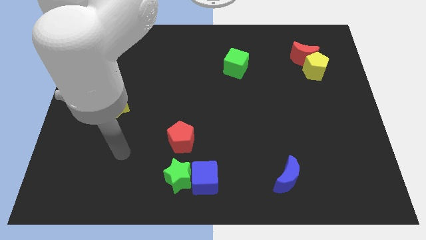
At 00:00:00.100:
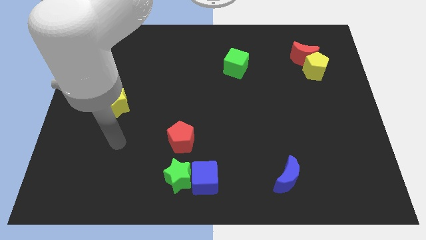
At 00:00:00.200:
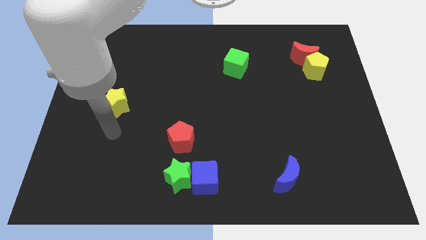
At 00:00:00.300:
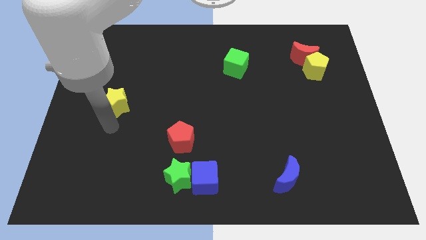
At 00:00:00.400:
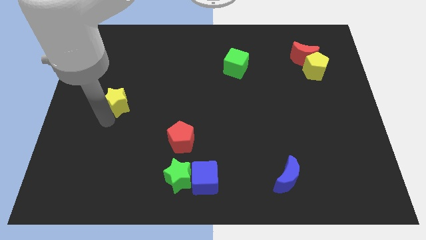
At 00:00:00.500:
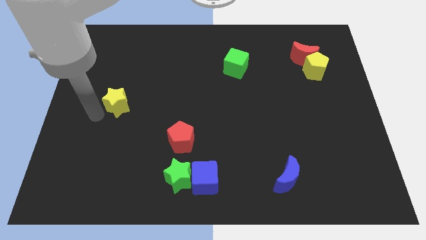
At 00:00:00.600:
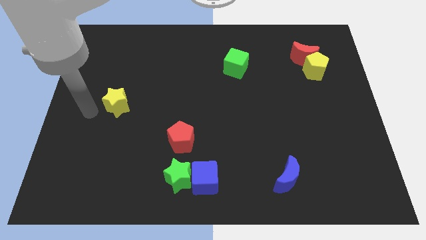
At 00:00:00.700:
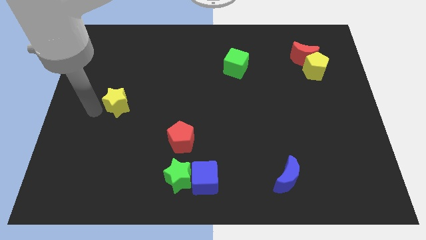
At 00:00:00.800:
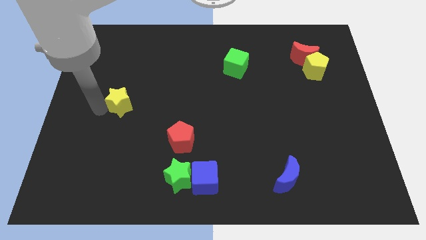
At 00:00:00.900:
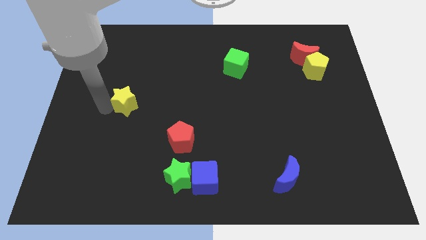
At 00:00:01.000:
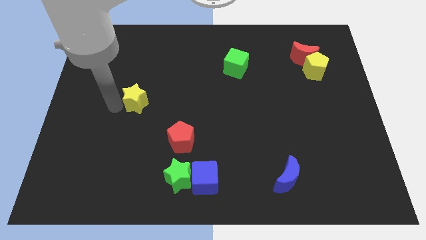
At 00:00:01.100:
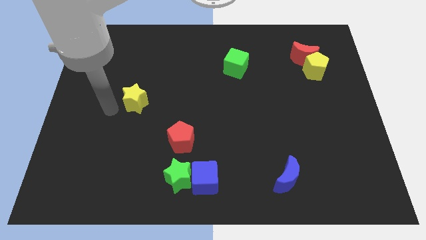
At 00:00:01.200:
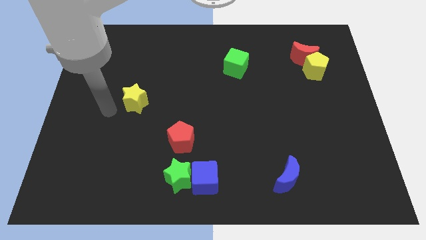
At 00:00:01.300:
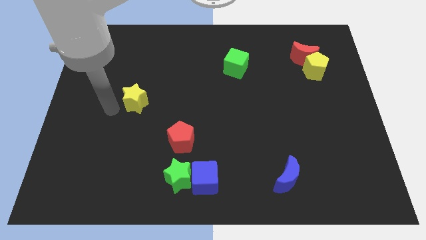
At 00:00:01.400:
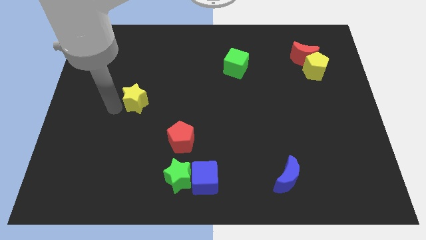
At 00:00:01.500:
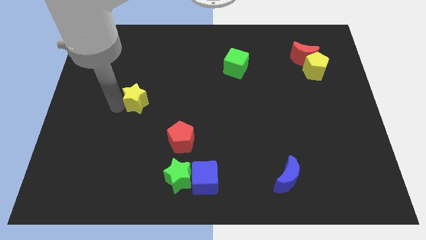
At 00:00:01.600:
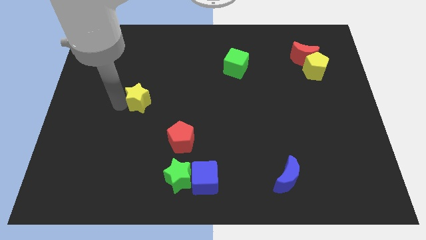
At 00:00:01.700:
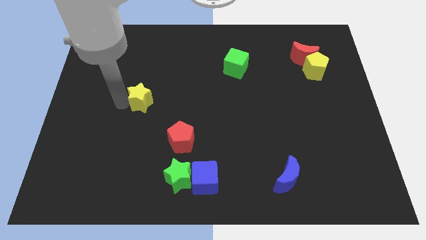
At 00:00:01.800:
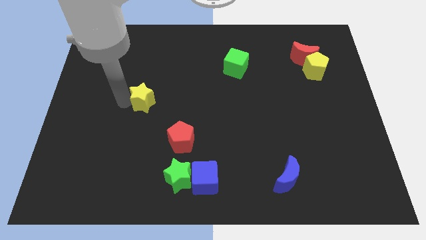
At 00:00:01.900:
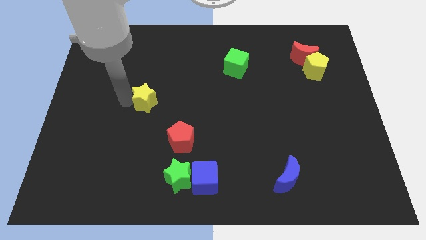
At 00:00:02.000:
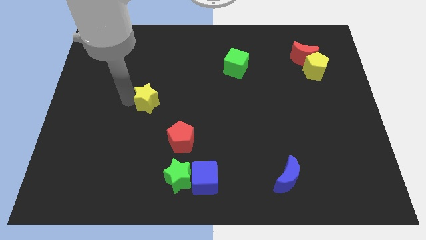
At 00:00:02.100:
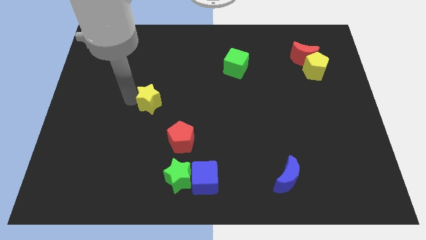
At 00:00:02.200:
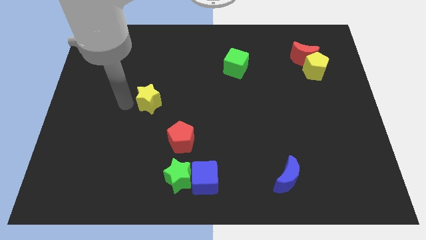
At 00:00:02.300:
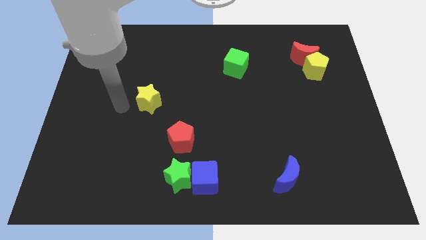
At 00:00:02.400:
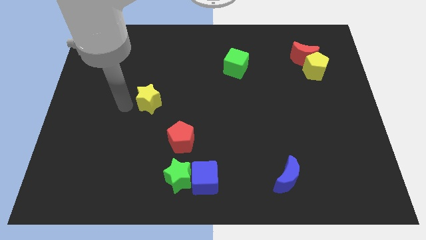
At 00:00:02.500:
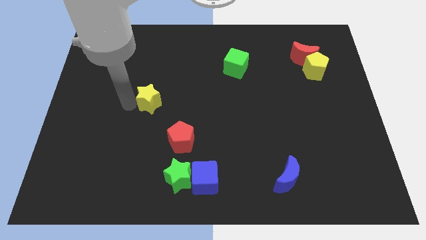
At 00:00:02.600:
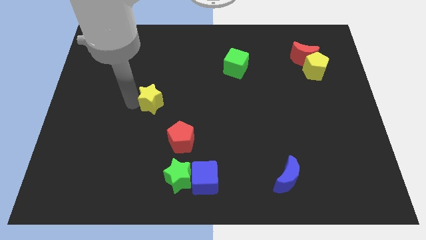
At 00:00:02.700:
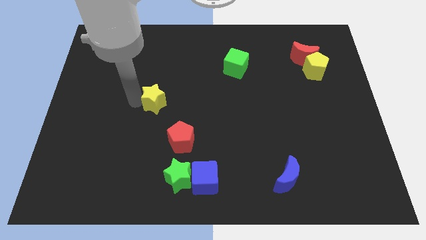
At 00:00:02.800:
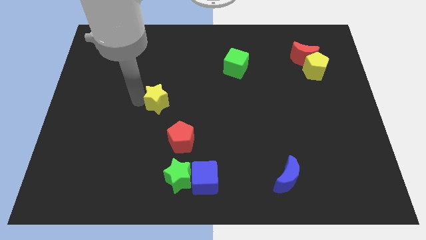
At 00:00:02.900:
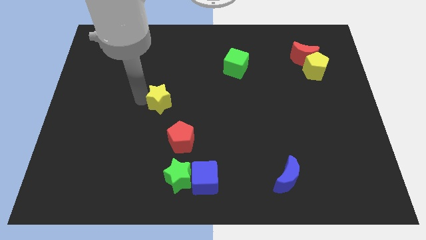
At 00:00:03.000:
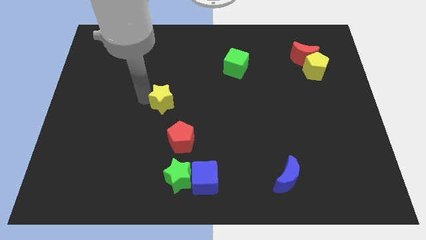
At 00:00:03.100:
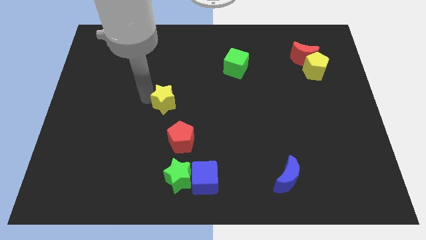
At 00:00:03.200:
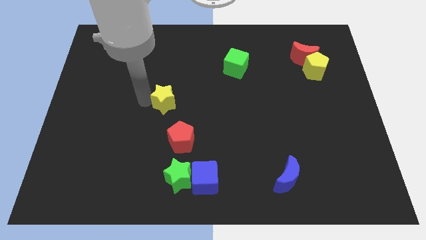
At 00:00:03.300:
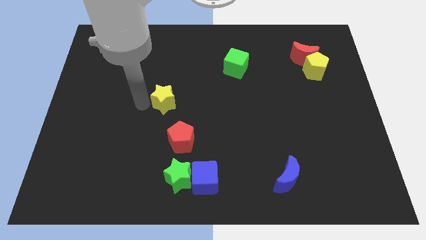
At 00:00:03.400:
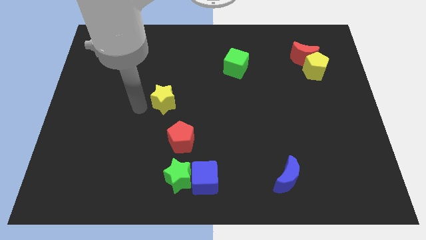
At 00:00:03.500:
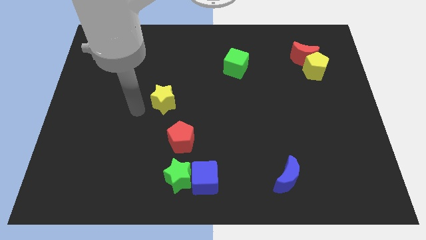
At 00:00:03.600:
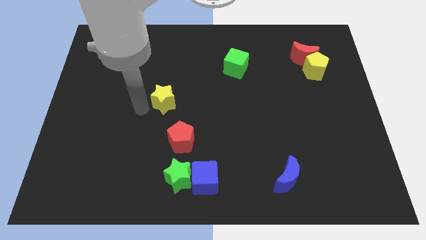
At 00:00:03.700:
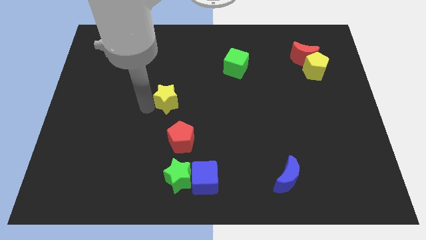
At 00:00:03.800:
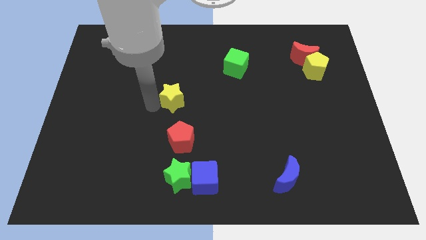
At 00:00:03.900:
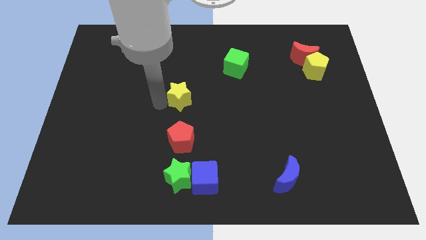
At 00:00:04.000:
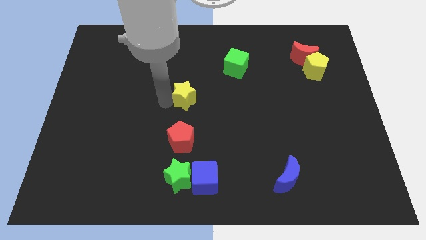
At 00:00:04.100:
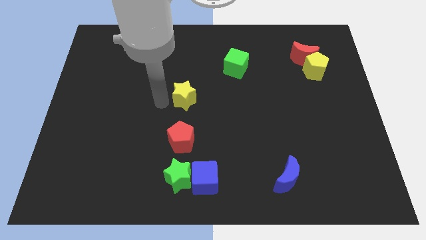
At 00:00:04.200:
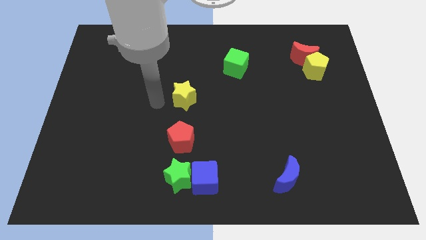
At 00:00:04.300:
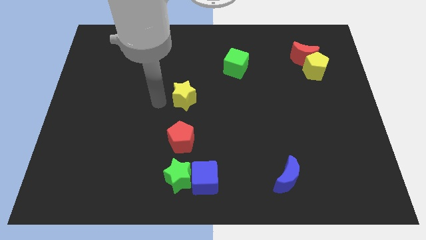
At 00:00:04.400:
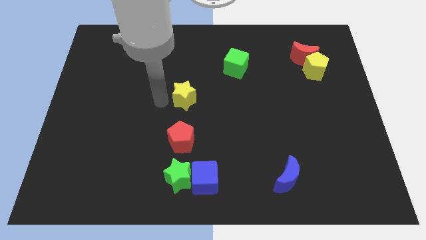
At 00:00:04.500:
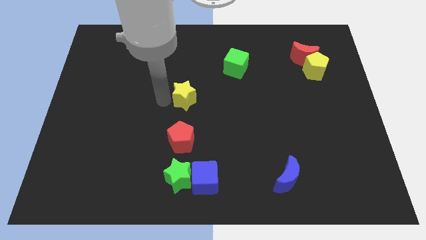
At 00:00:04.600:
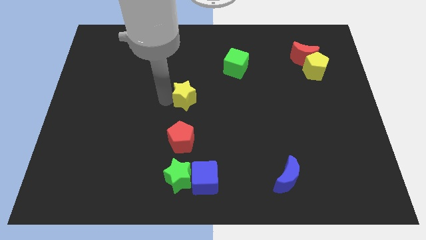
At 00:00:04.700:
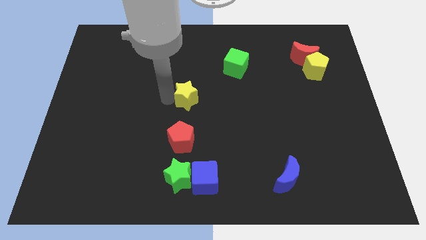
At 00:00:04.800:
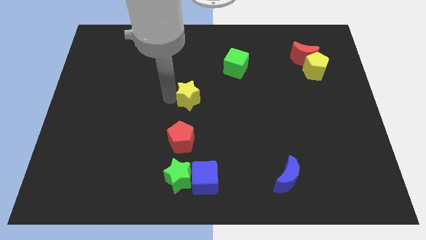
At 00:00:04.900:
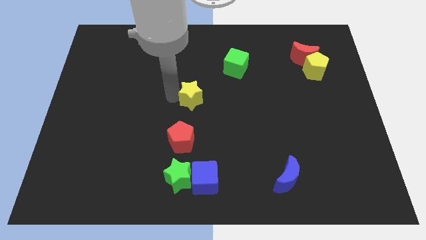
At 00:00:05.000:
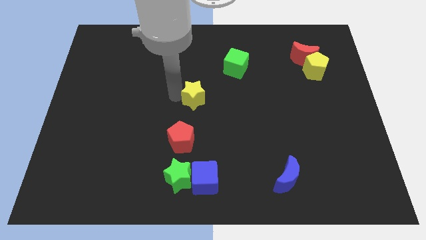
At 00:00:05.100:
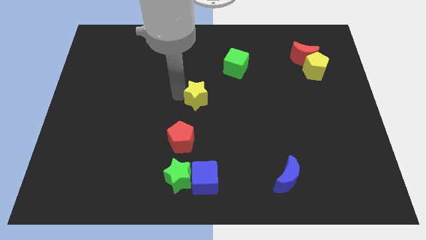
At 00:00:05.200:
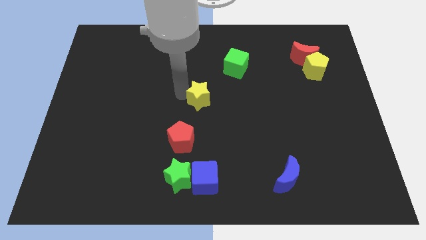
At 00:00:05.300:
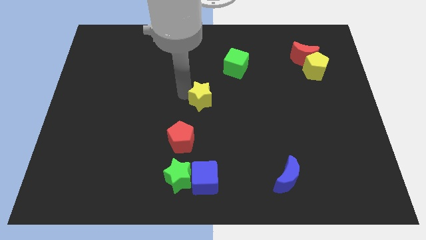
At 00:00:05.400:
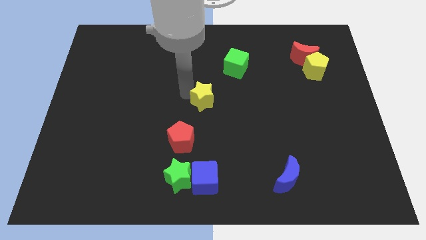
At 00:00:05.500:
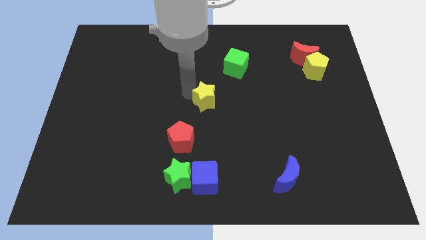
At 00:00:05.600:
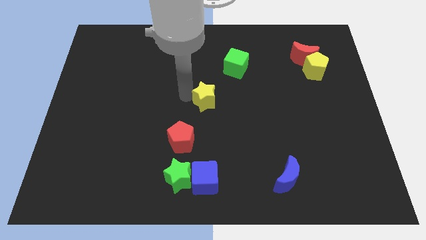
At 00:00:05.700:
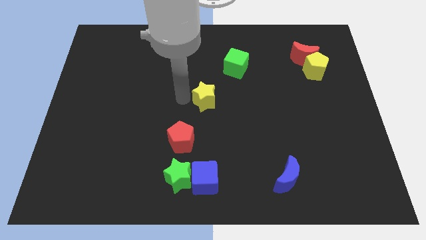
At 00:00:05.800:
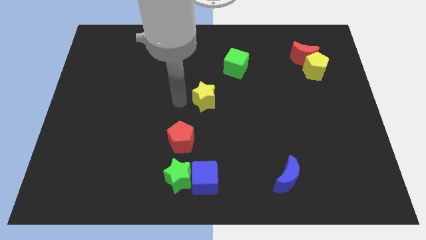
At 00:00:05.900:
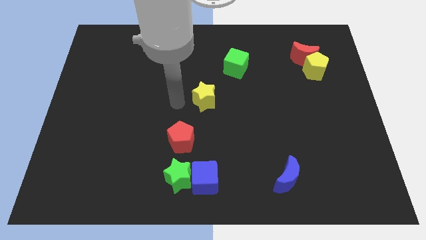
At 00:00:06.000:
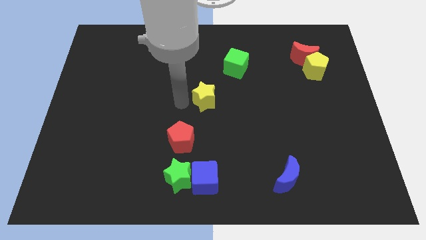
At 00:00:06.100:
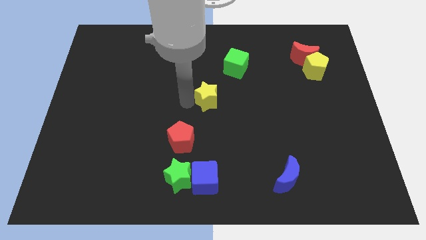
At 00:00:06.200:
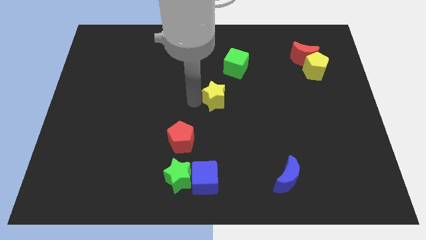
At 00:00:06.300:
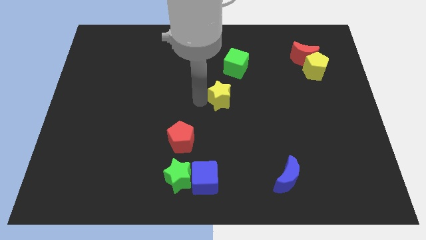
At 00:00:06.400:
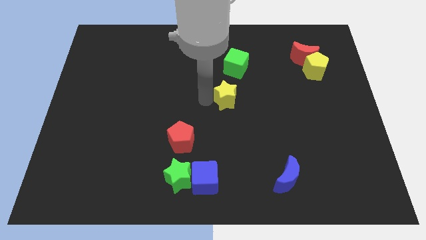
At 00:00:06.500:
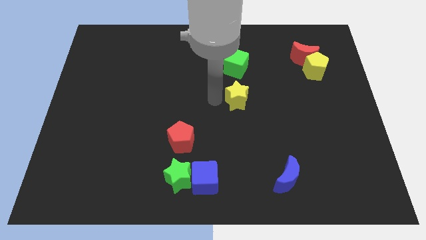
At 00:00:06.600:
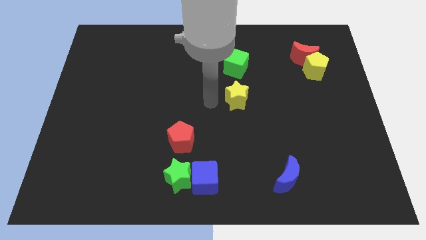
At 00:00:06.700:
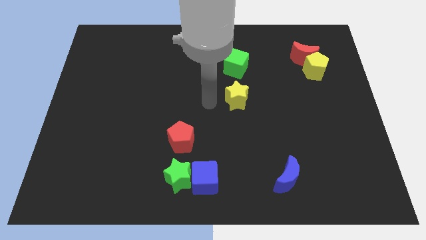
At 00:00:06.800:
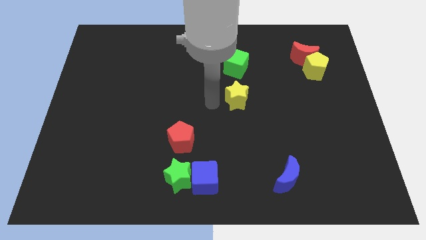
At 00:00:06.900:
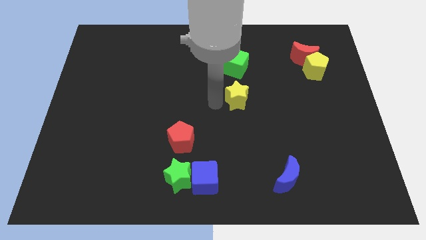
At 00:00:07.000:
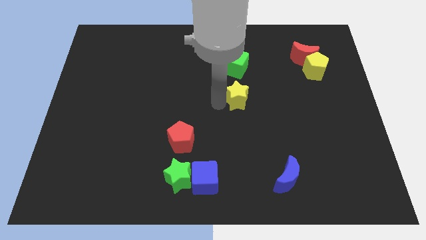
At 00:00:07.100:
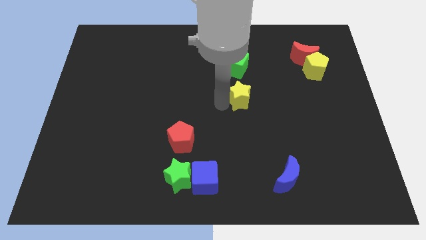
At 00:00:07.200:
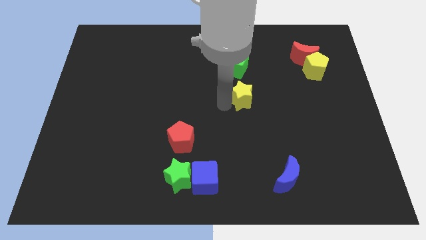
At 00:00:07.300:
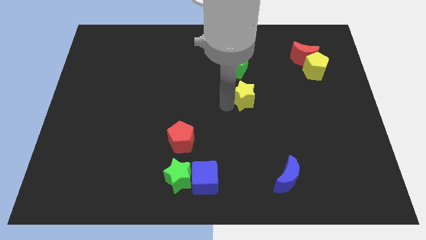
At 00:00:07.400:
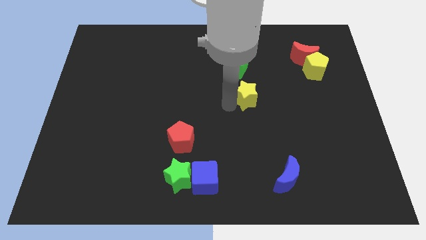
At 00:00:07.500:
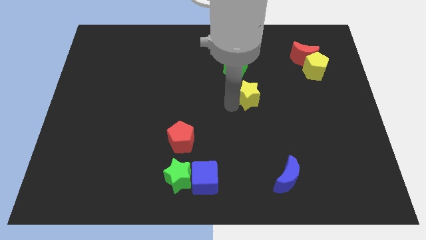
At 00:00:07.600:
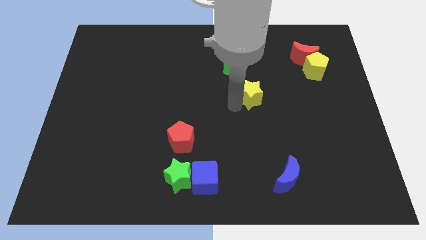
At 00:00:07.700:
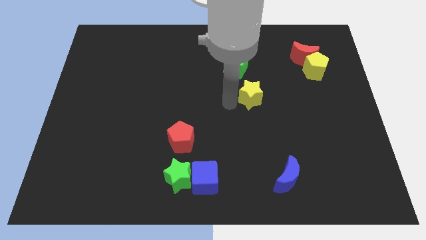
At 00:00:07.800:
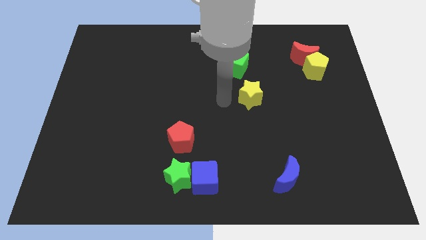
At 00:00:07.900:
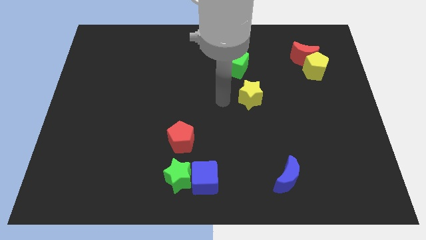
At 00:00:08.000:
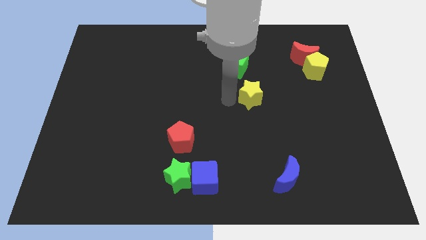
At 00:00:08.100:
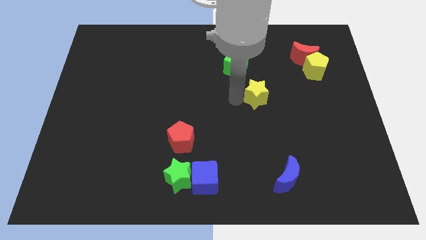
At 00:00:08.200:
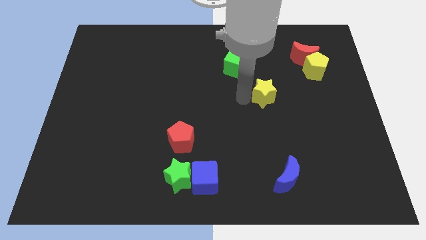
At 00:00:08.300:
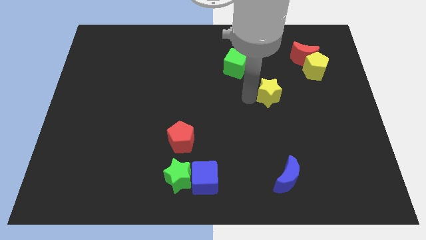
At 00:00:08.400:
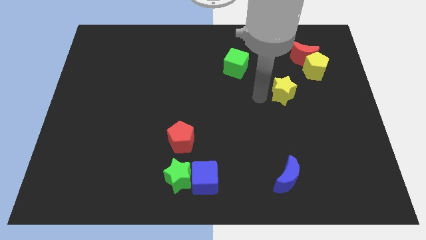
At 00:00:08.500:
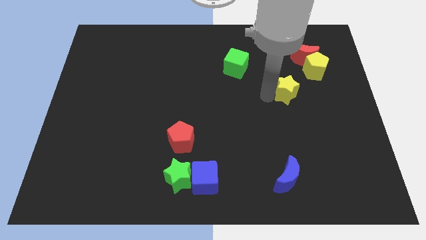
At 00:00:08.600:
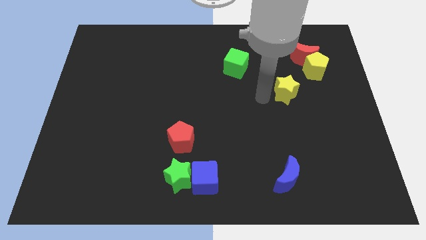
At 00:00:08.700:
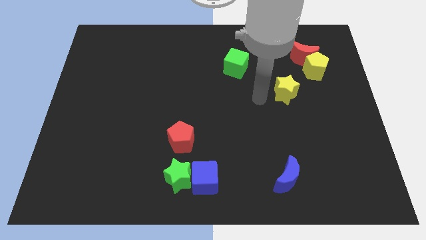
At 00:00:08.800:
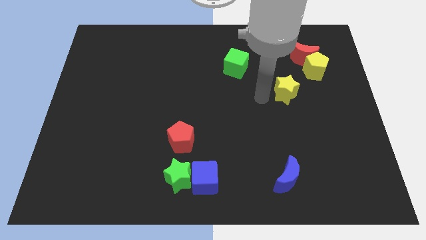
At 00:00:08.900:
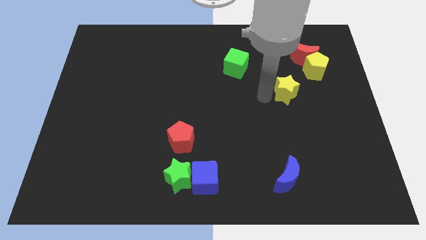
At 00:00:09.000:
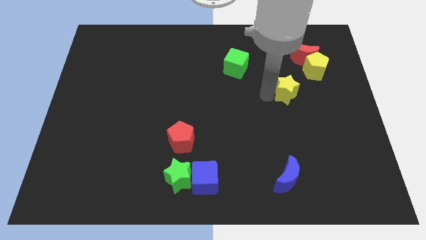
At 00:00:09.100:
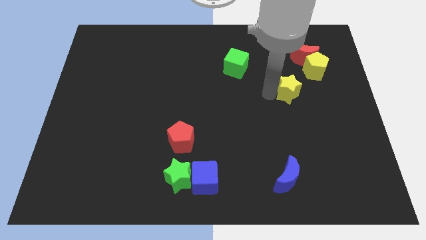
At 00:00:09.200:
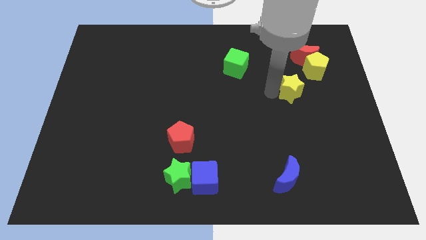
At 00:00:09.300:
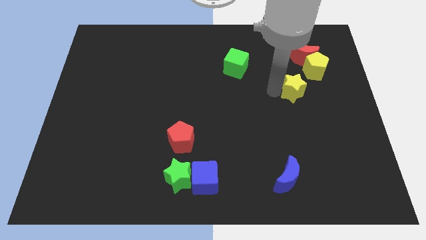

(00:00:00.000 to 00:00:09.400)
slide the yellow star to the bottom of the red moon
